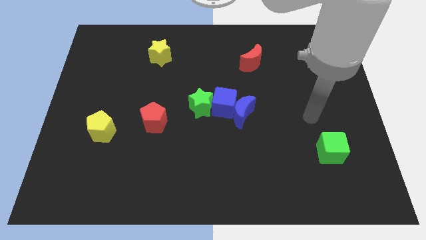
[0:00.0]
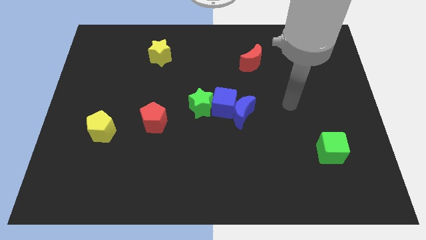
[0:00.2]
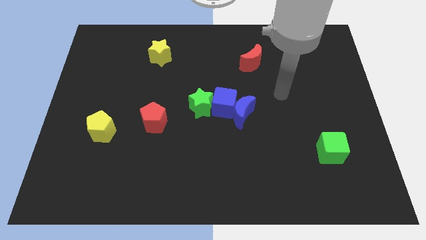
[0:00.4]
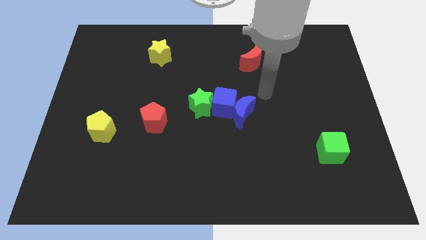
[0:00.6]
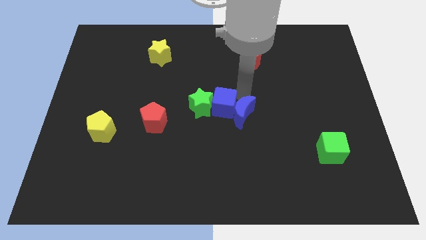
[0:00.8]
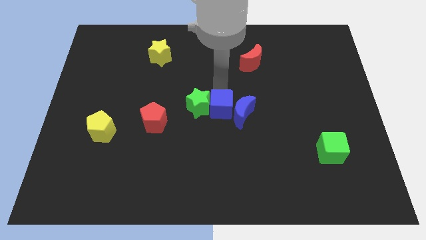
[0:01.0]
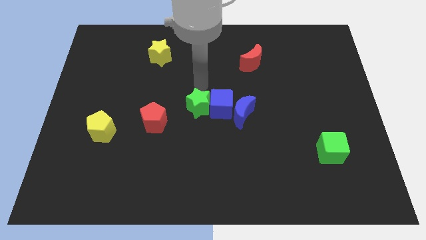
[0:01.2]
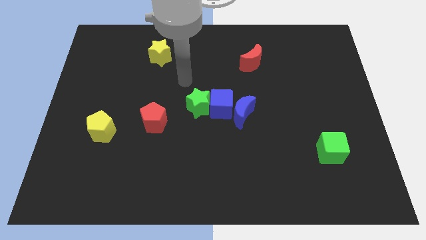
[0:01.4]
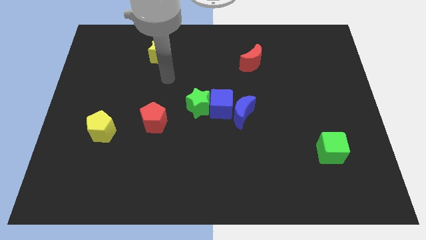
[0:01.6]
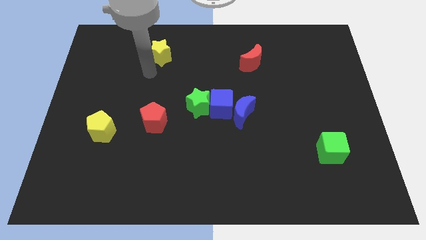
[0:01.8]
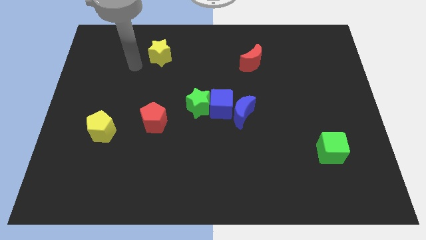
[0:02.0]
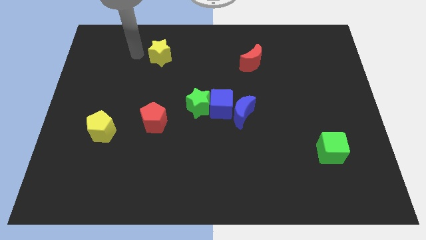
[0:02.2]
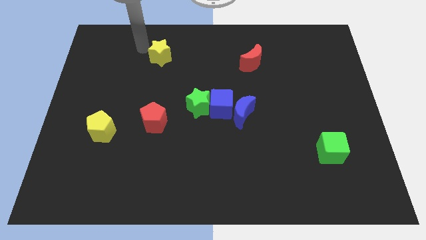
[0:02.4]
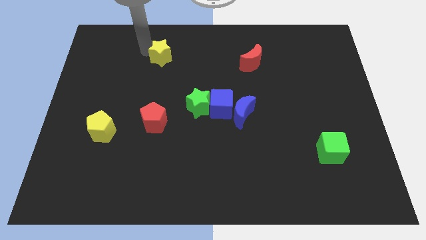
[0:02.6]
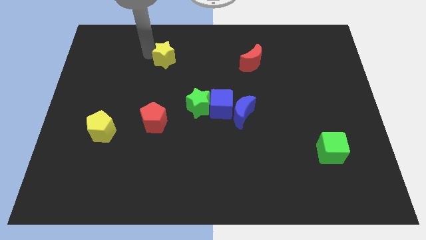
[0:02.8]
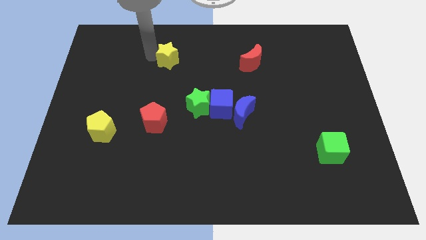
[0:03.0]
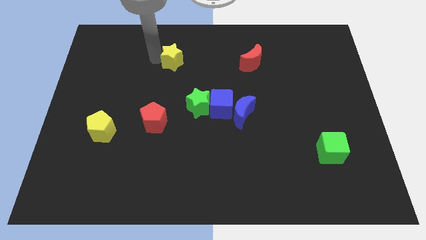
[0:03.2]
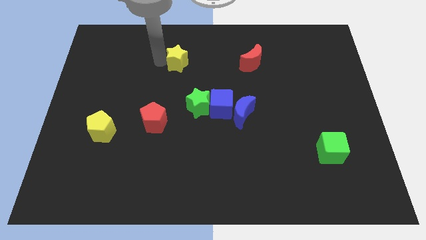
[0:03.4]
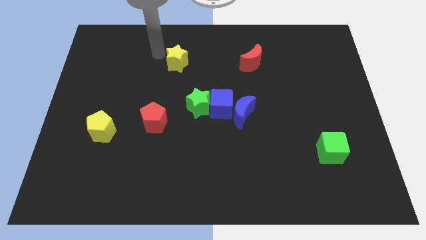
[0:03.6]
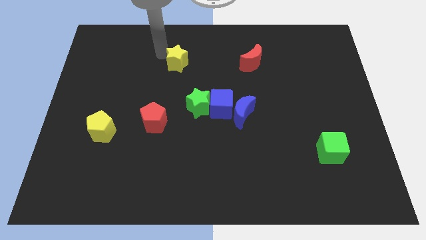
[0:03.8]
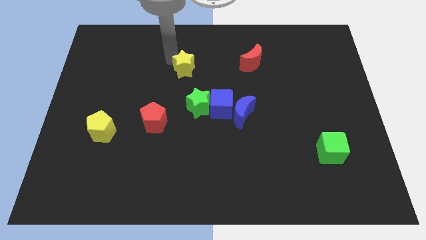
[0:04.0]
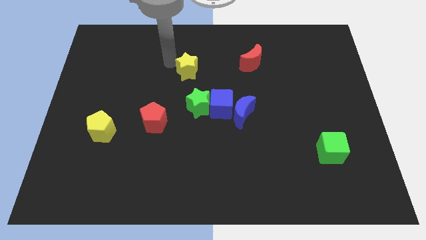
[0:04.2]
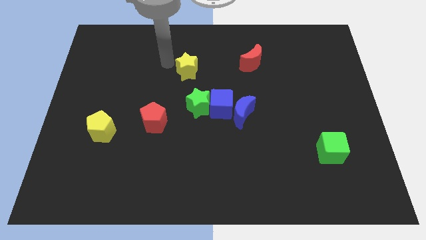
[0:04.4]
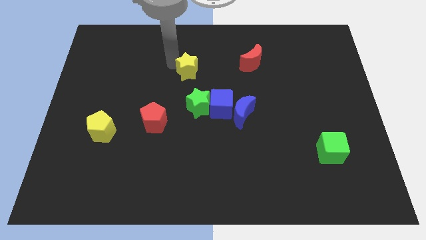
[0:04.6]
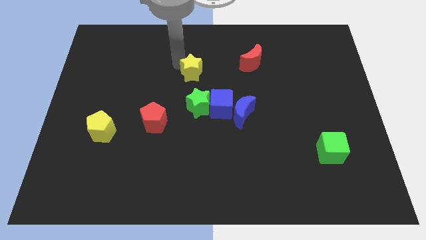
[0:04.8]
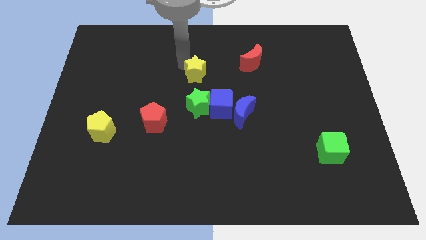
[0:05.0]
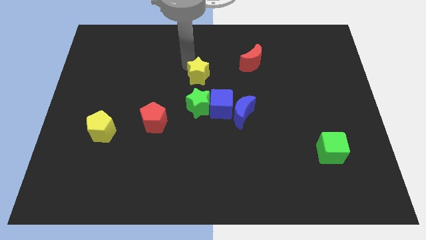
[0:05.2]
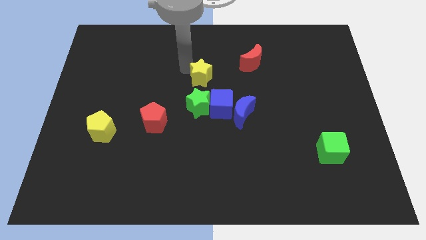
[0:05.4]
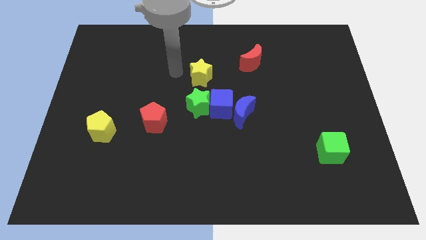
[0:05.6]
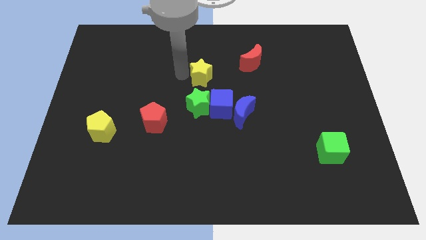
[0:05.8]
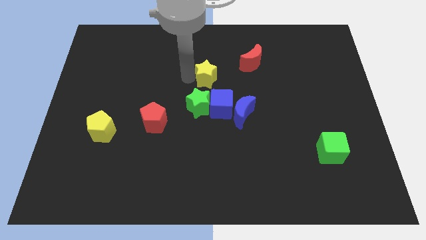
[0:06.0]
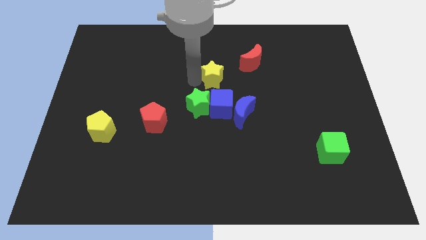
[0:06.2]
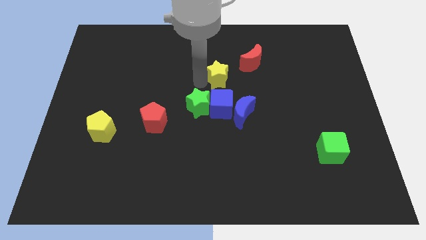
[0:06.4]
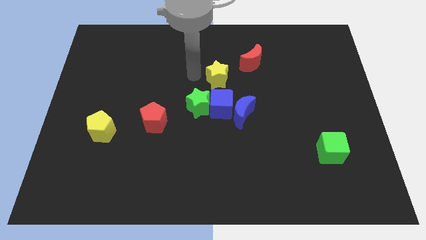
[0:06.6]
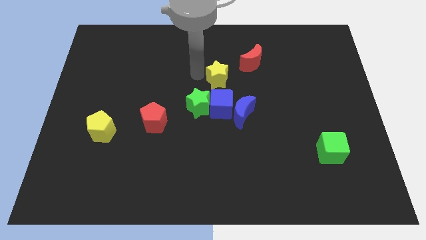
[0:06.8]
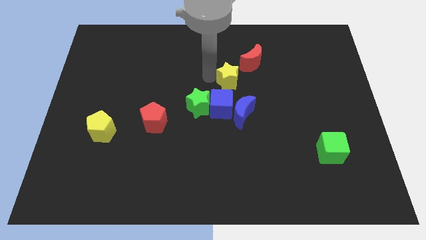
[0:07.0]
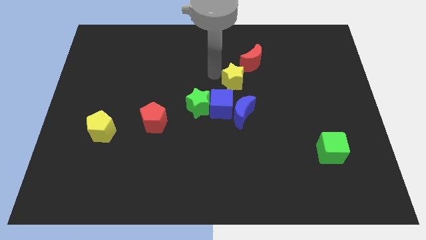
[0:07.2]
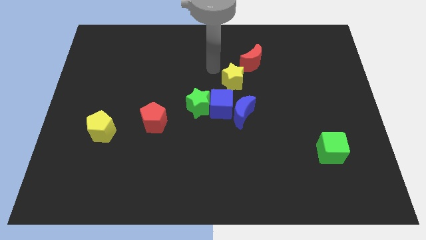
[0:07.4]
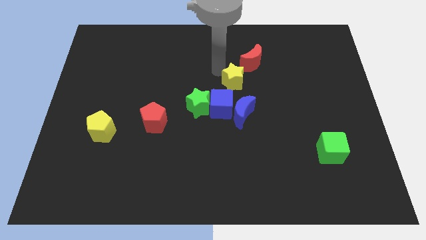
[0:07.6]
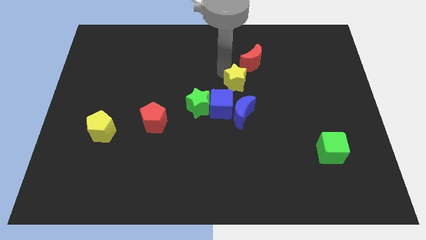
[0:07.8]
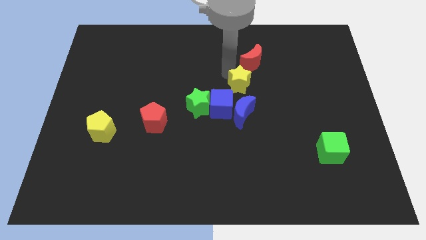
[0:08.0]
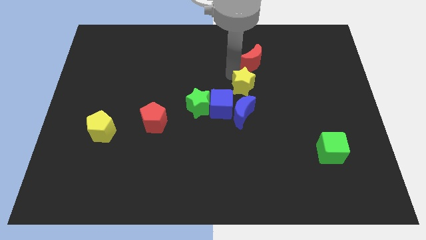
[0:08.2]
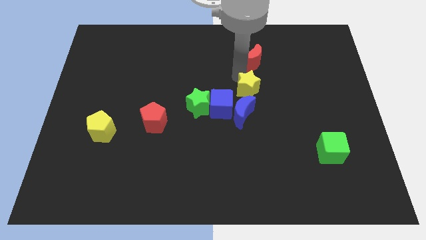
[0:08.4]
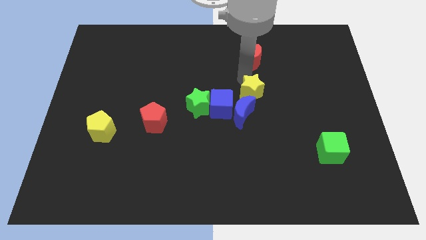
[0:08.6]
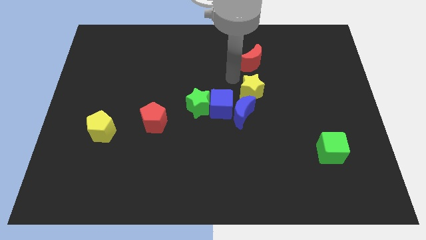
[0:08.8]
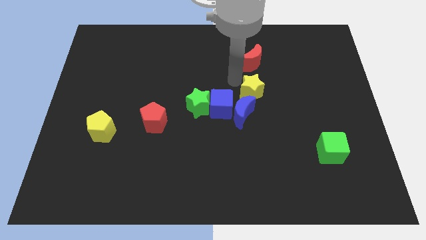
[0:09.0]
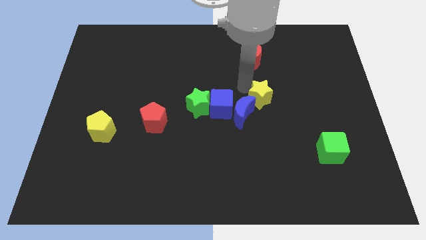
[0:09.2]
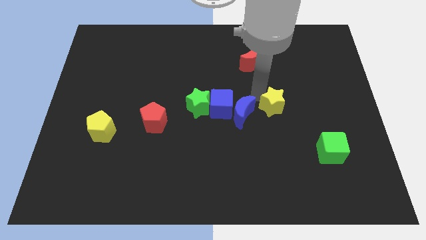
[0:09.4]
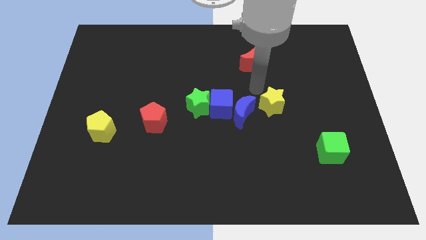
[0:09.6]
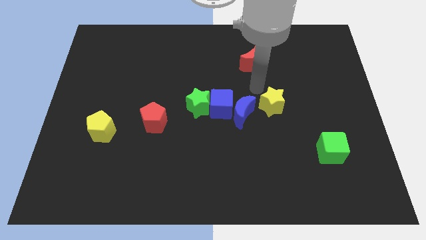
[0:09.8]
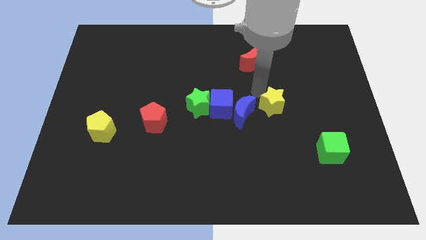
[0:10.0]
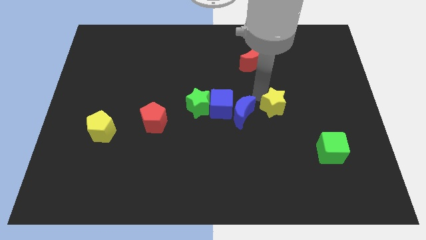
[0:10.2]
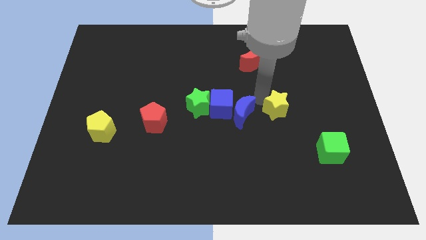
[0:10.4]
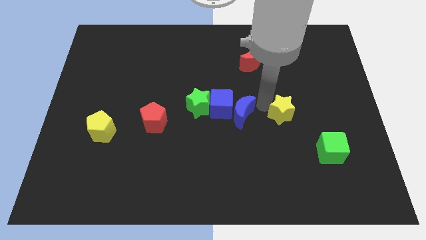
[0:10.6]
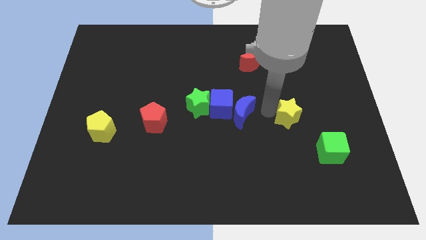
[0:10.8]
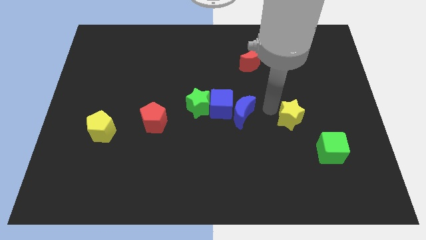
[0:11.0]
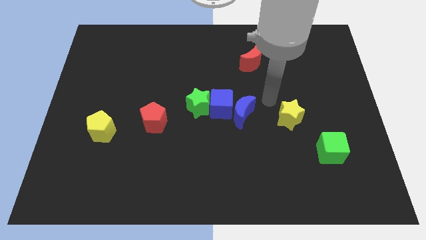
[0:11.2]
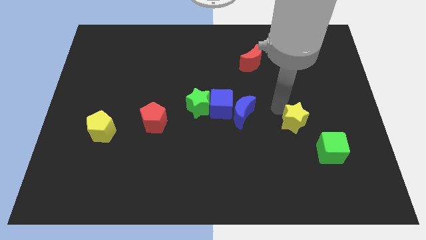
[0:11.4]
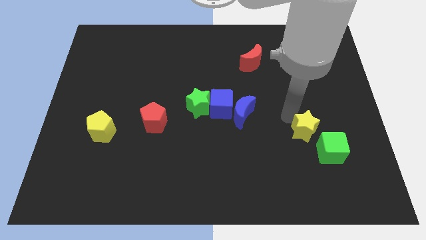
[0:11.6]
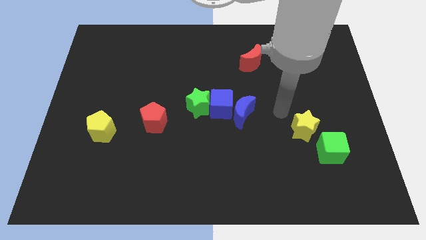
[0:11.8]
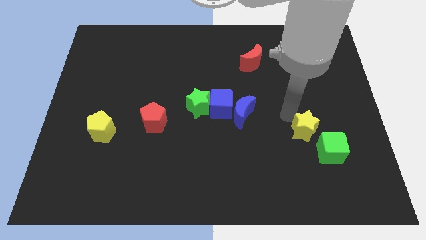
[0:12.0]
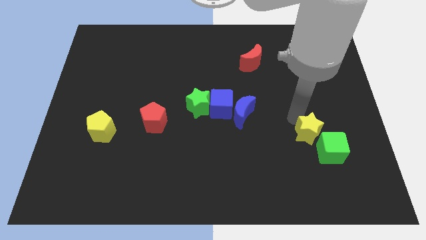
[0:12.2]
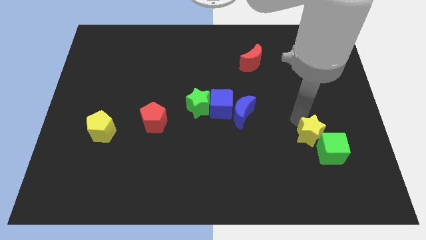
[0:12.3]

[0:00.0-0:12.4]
move the yellow star next to the green cube
